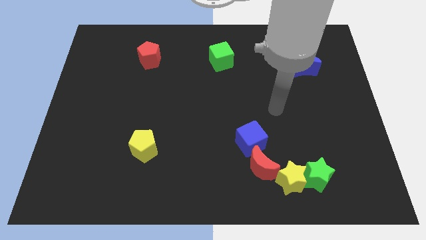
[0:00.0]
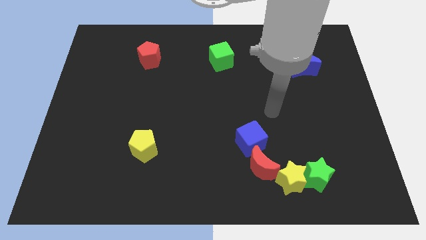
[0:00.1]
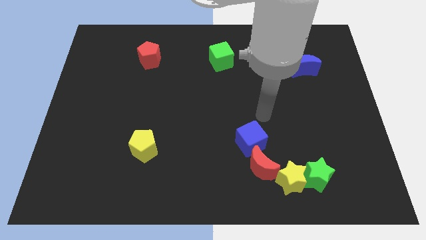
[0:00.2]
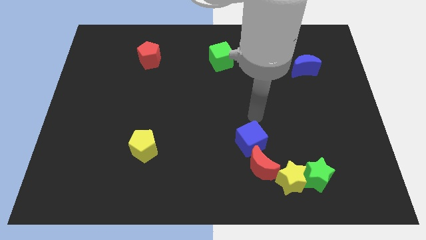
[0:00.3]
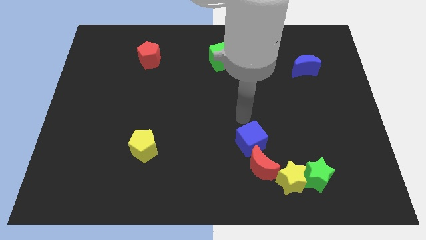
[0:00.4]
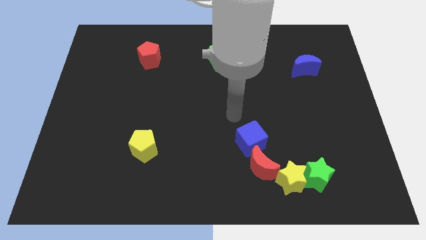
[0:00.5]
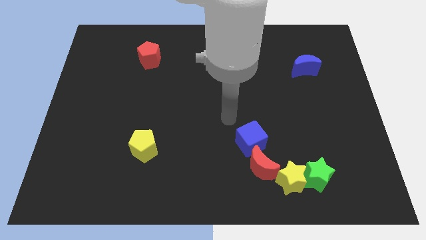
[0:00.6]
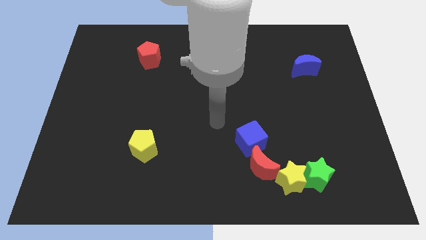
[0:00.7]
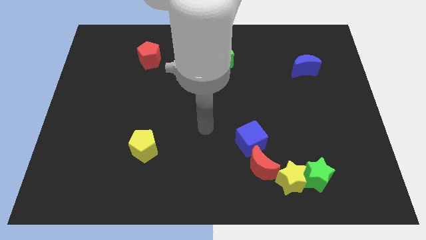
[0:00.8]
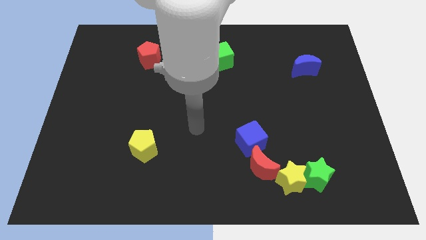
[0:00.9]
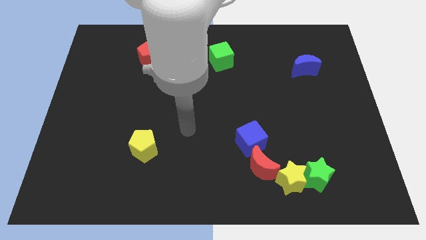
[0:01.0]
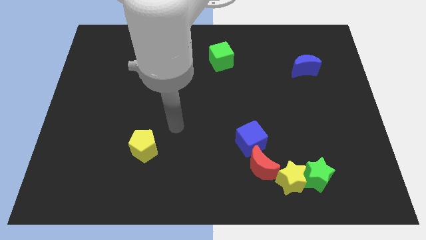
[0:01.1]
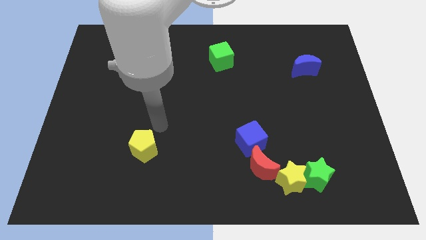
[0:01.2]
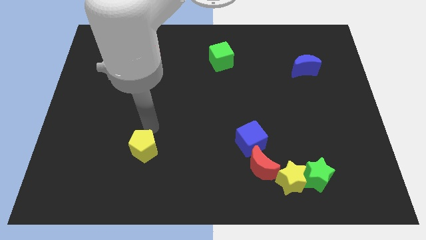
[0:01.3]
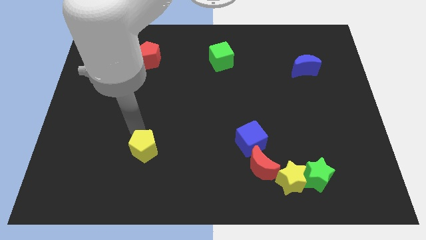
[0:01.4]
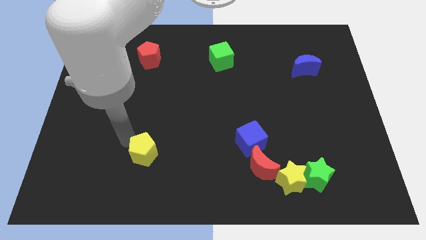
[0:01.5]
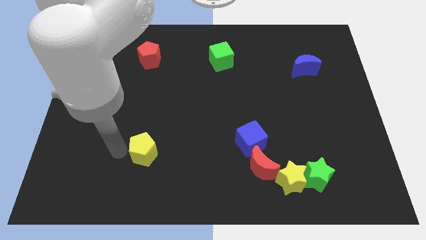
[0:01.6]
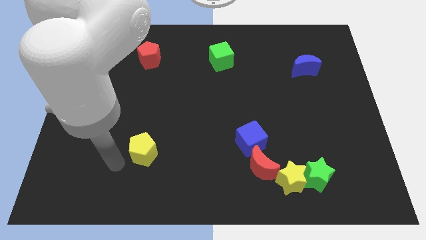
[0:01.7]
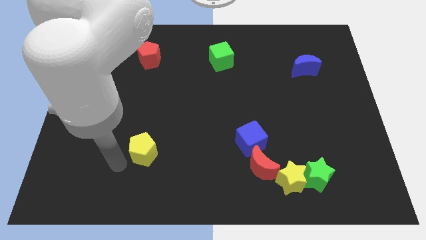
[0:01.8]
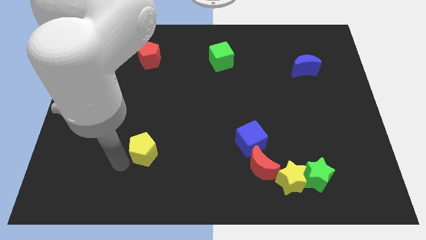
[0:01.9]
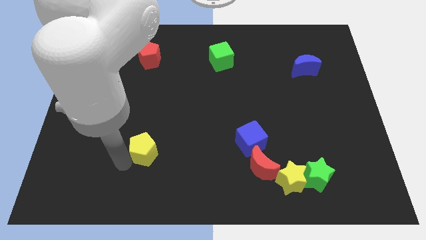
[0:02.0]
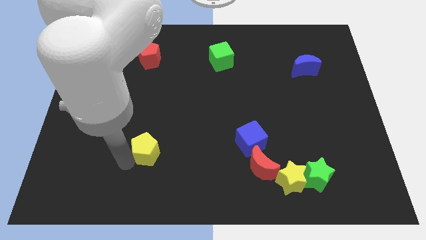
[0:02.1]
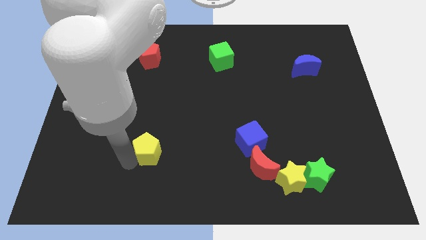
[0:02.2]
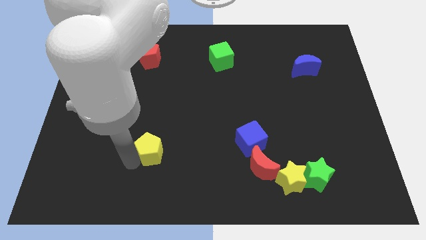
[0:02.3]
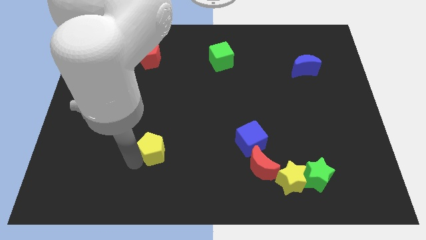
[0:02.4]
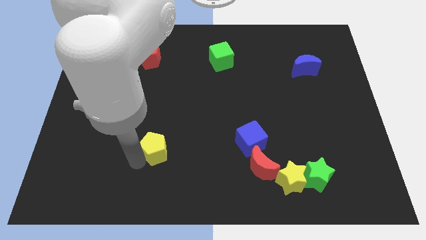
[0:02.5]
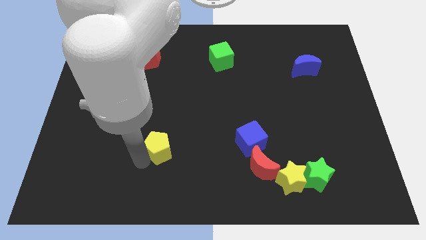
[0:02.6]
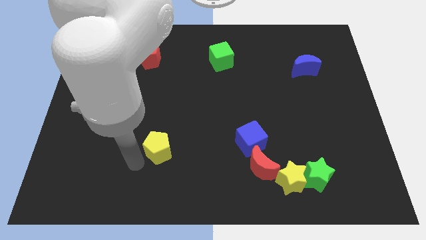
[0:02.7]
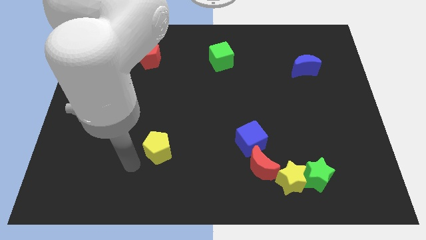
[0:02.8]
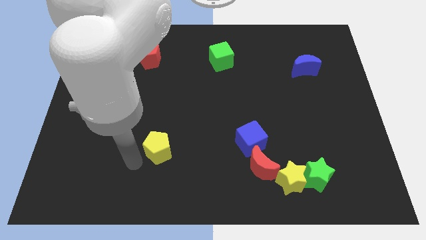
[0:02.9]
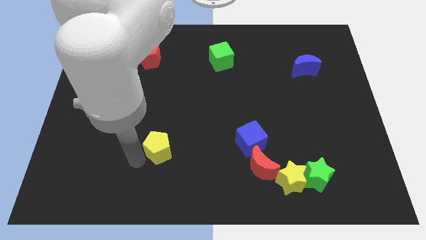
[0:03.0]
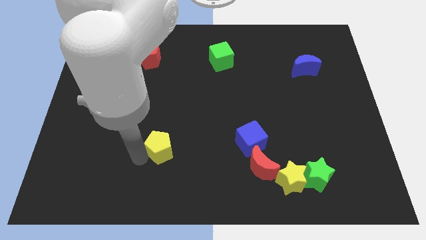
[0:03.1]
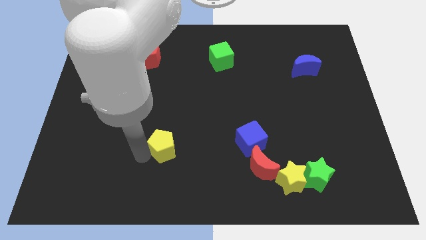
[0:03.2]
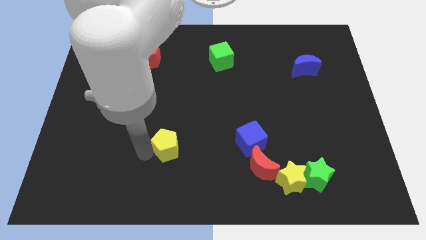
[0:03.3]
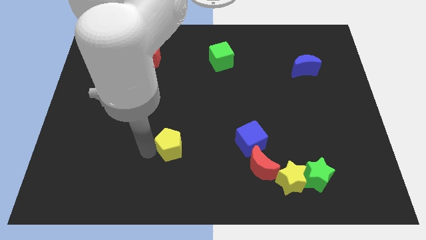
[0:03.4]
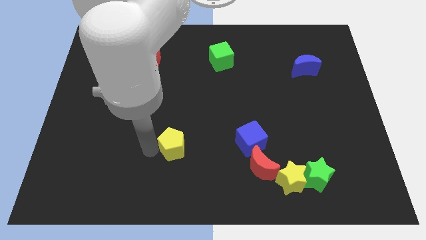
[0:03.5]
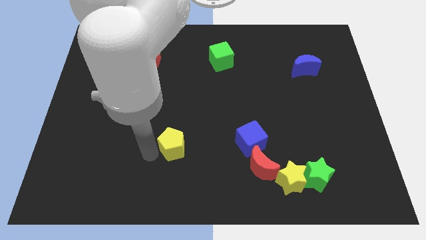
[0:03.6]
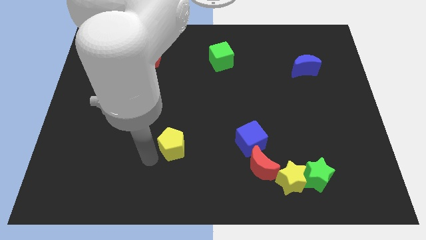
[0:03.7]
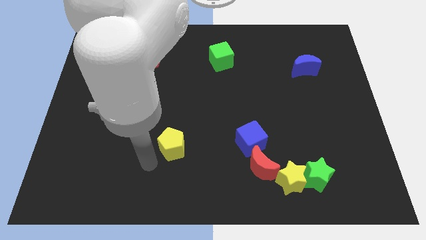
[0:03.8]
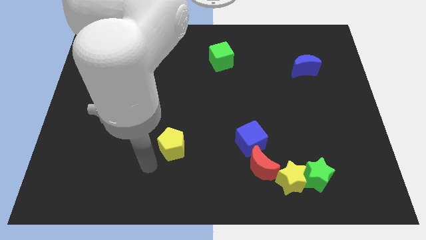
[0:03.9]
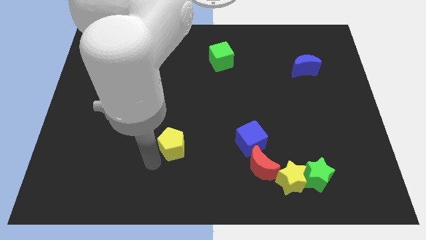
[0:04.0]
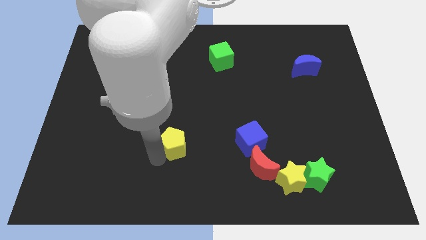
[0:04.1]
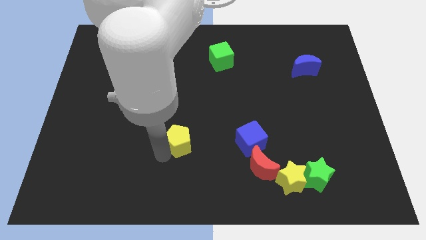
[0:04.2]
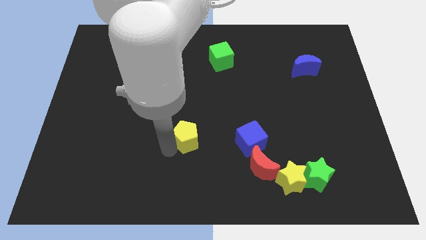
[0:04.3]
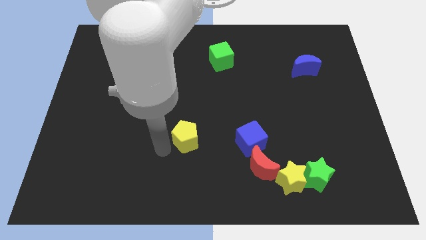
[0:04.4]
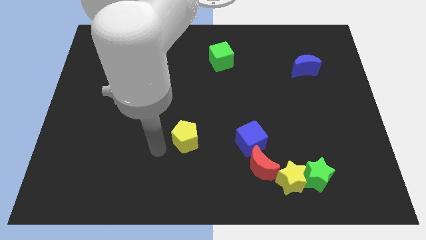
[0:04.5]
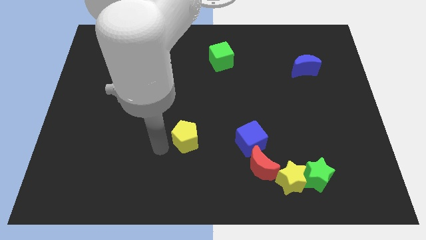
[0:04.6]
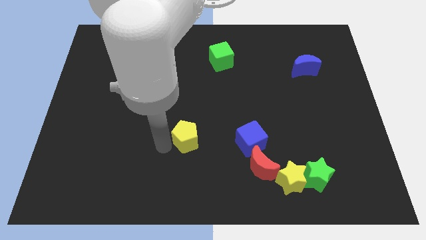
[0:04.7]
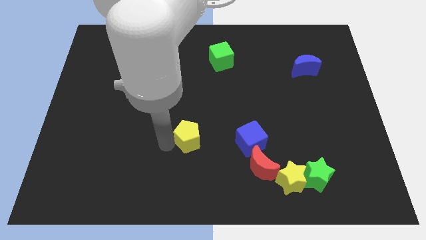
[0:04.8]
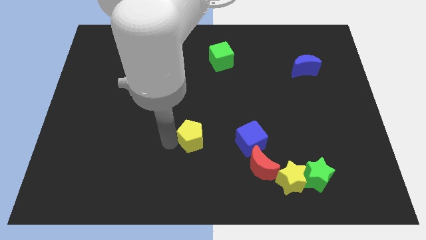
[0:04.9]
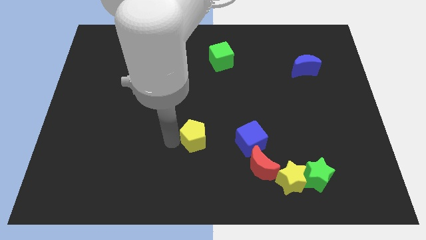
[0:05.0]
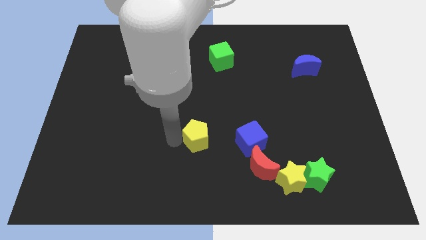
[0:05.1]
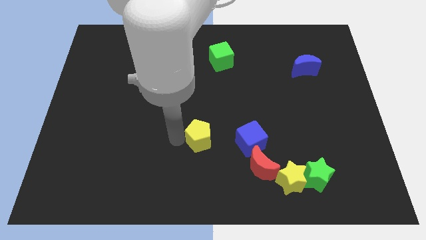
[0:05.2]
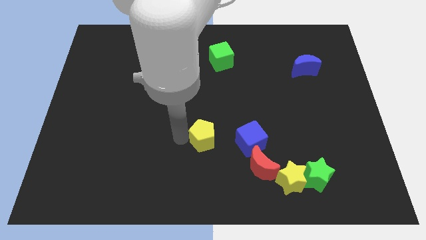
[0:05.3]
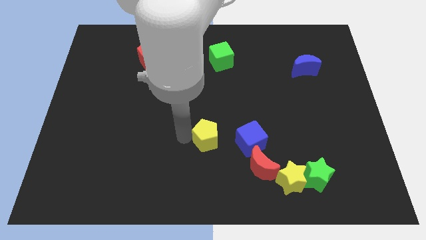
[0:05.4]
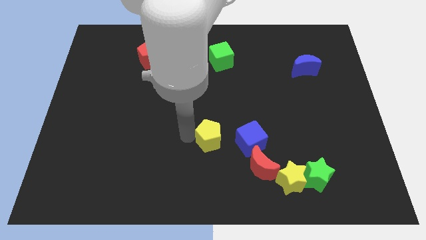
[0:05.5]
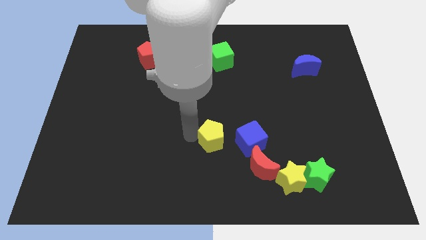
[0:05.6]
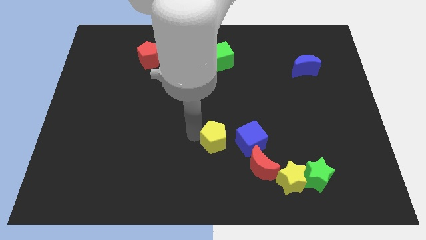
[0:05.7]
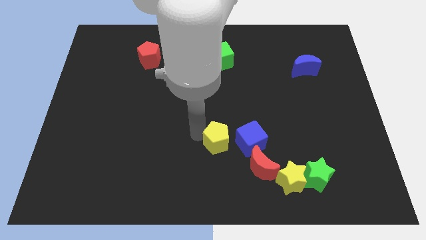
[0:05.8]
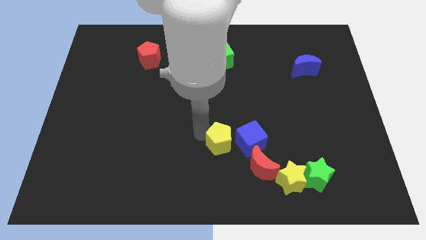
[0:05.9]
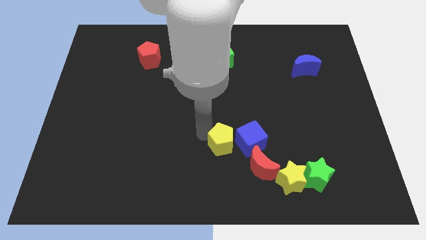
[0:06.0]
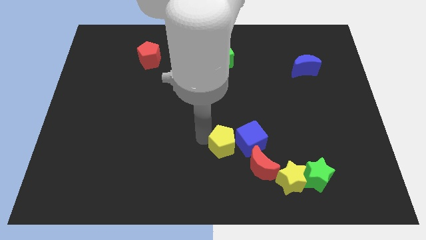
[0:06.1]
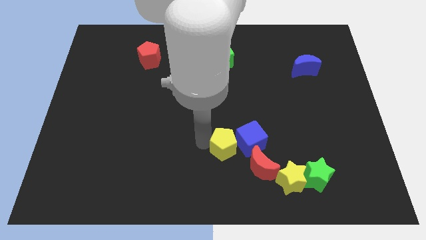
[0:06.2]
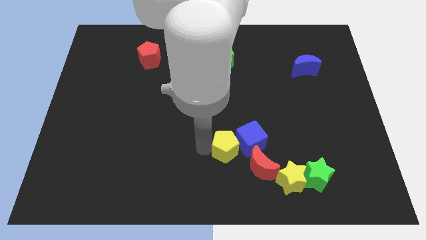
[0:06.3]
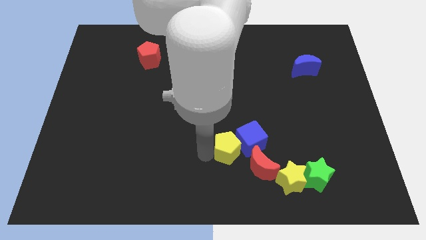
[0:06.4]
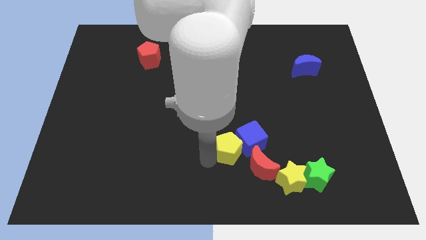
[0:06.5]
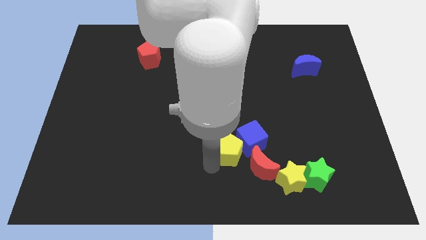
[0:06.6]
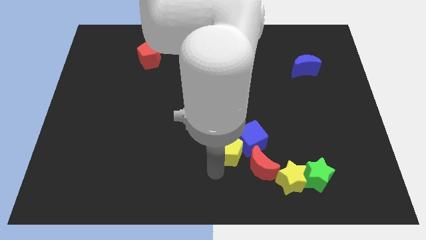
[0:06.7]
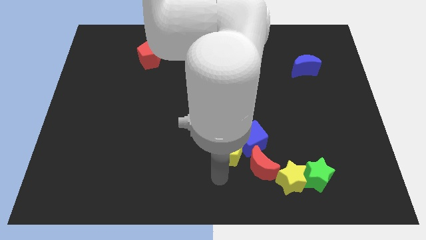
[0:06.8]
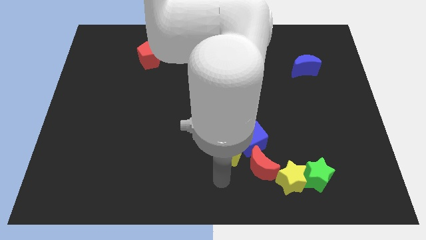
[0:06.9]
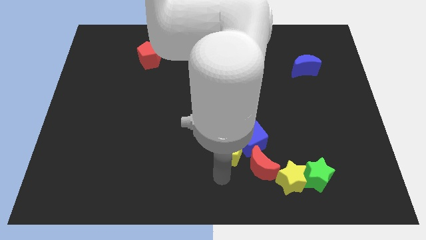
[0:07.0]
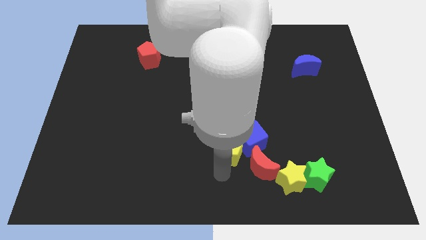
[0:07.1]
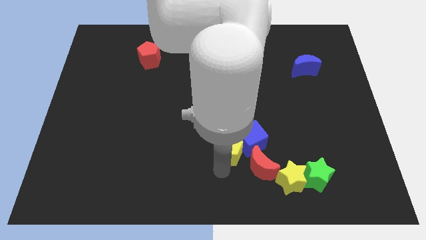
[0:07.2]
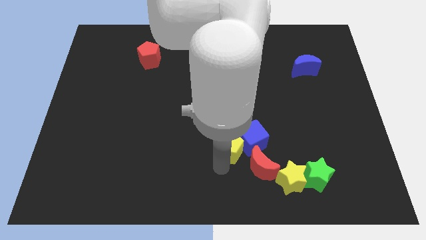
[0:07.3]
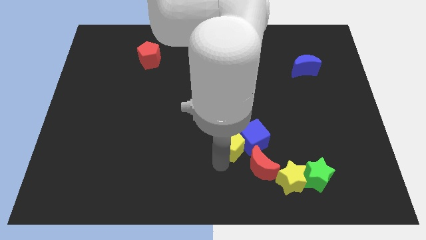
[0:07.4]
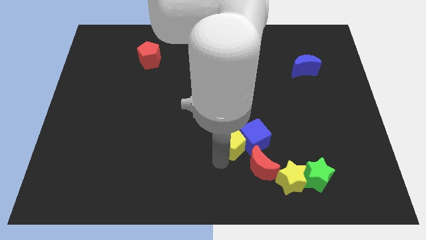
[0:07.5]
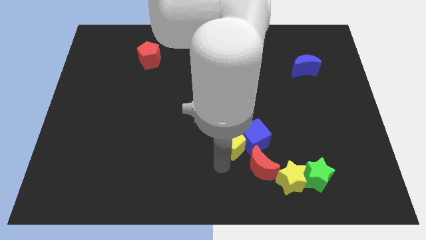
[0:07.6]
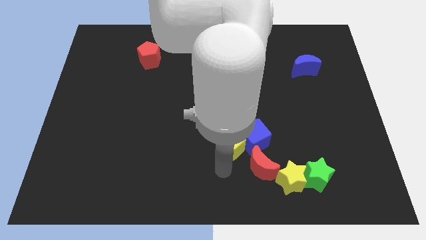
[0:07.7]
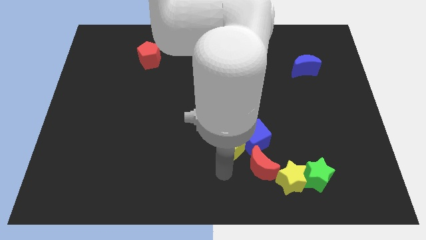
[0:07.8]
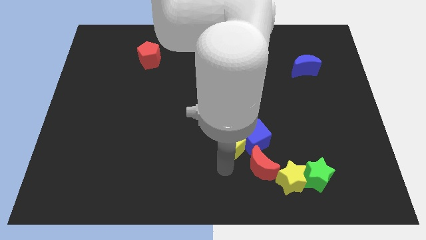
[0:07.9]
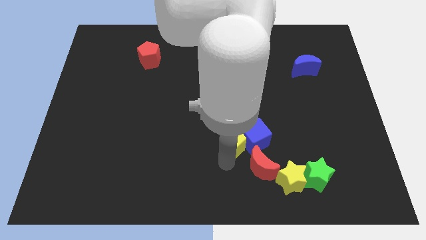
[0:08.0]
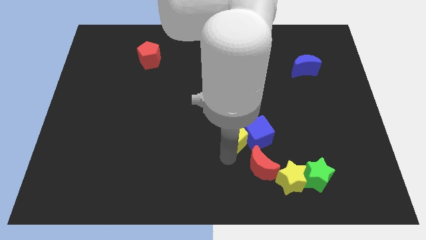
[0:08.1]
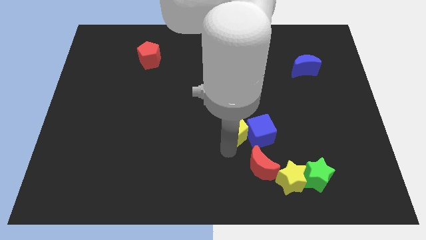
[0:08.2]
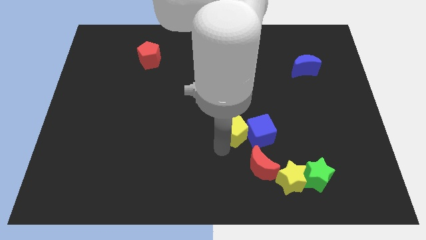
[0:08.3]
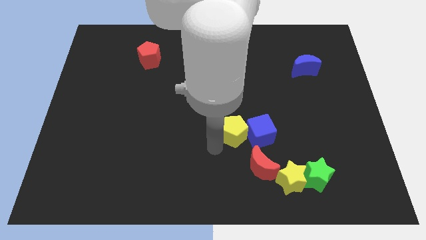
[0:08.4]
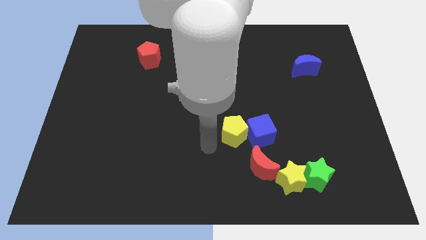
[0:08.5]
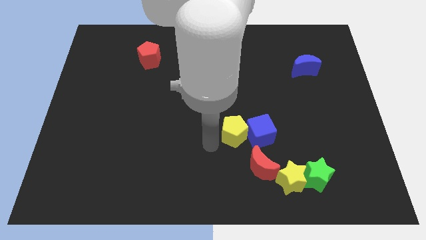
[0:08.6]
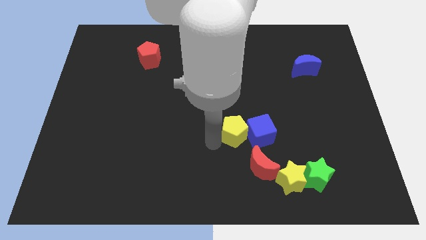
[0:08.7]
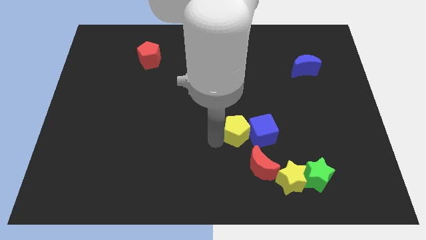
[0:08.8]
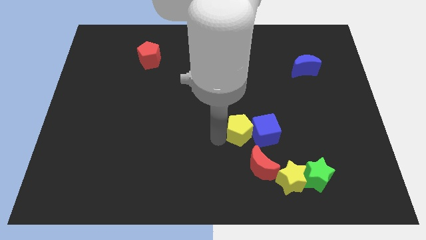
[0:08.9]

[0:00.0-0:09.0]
slide the yellow pentagon to the right
